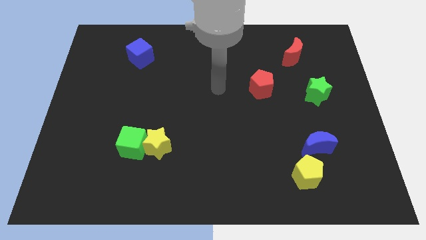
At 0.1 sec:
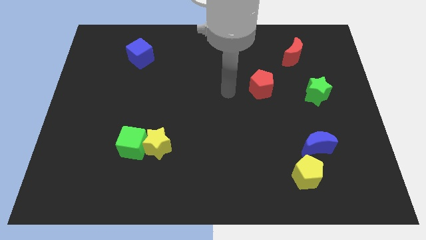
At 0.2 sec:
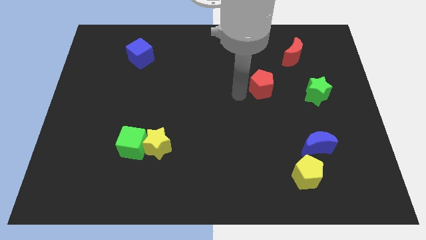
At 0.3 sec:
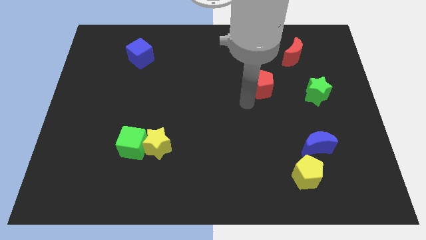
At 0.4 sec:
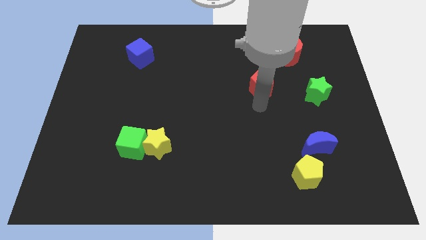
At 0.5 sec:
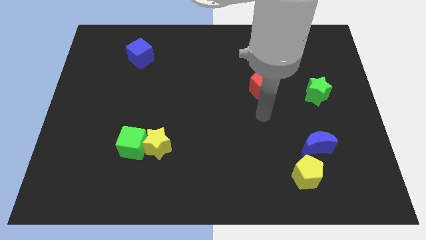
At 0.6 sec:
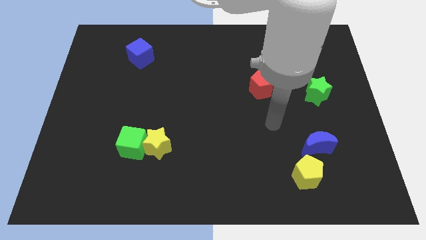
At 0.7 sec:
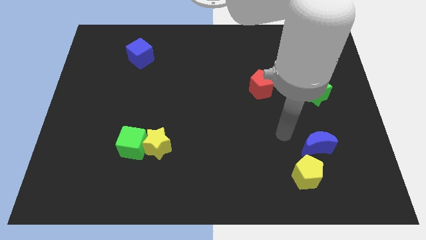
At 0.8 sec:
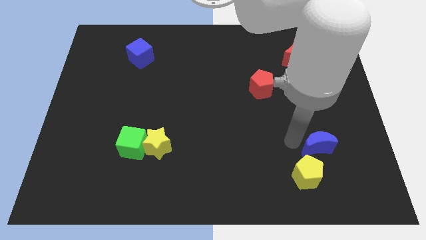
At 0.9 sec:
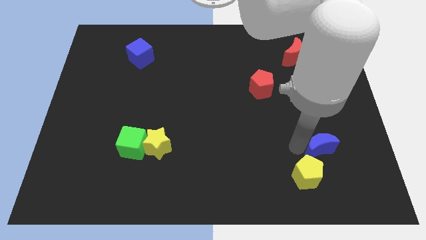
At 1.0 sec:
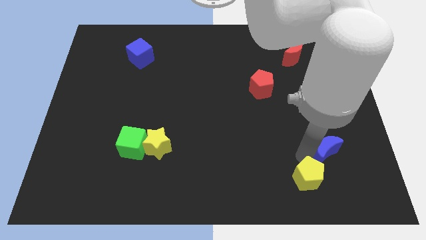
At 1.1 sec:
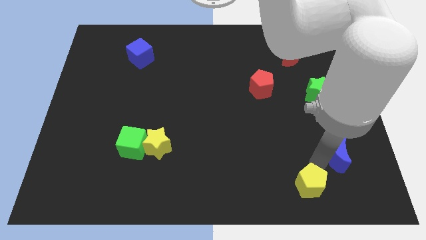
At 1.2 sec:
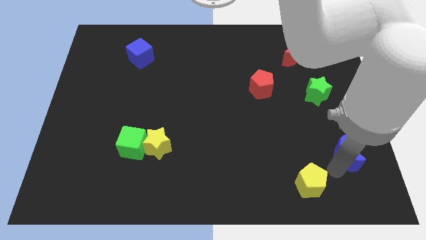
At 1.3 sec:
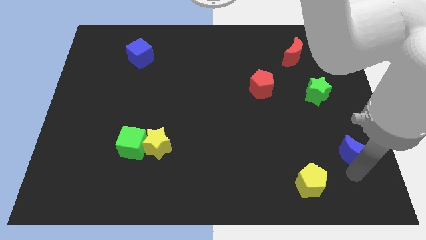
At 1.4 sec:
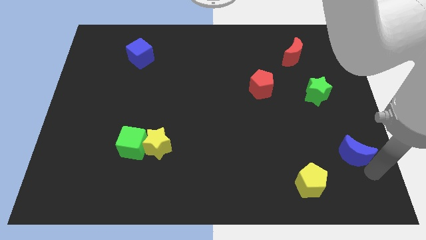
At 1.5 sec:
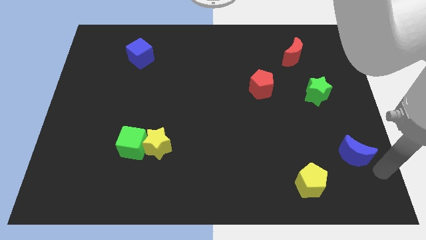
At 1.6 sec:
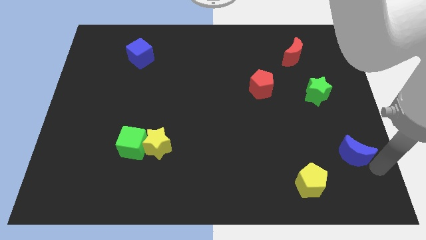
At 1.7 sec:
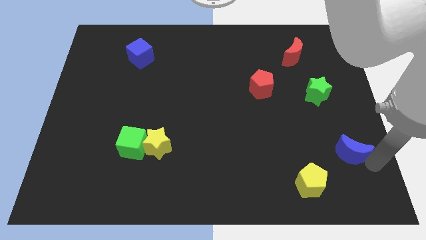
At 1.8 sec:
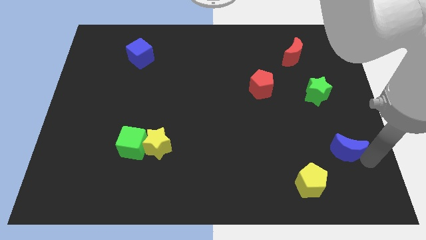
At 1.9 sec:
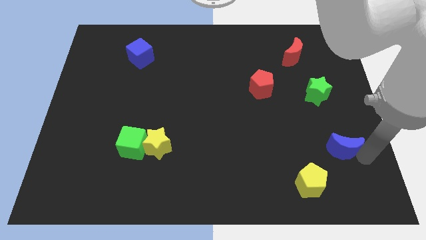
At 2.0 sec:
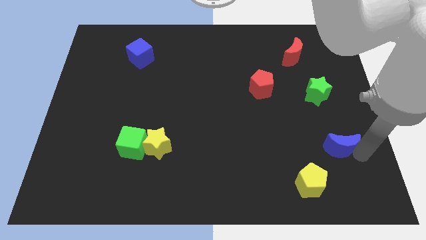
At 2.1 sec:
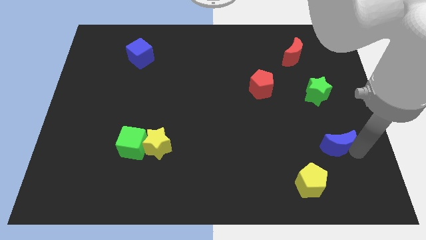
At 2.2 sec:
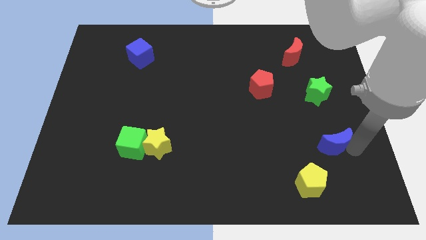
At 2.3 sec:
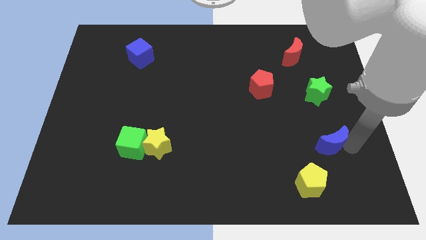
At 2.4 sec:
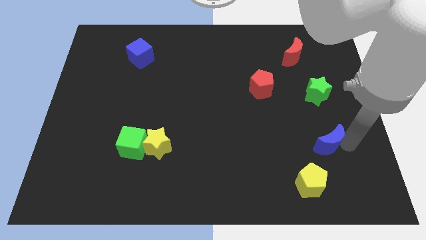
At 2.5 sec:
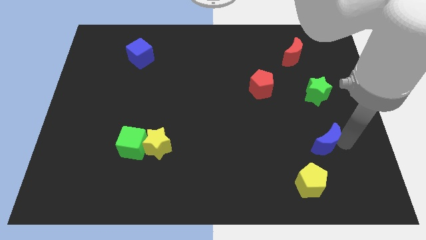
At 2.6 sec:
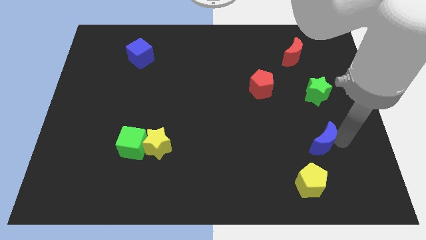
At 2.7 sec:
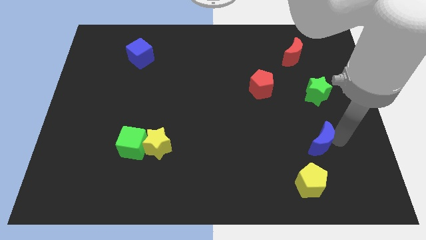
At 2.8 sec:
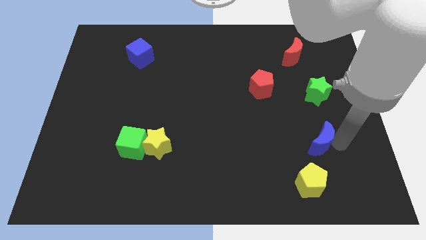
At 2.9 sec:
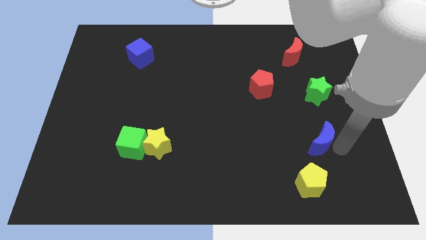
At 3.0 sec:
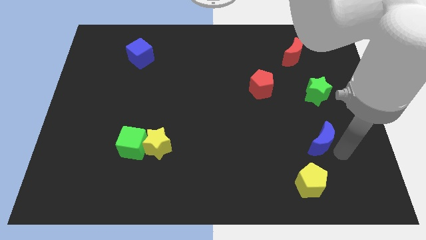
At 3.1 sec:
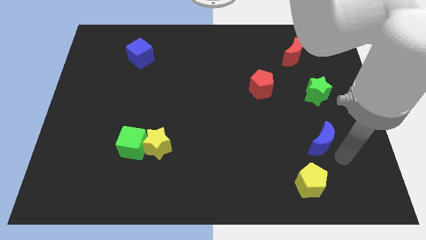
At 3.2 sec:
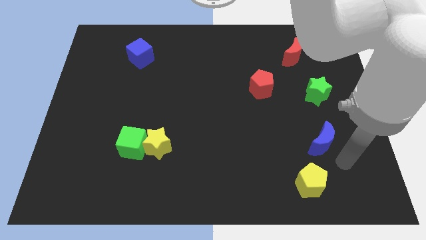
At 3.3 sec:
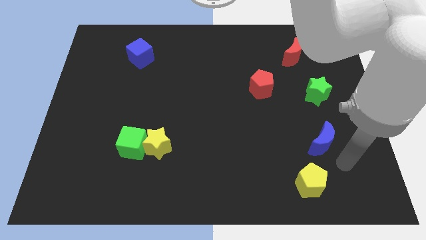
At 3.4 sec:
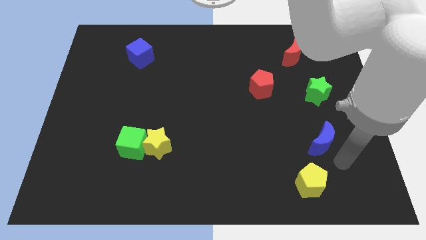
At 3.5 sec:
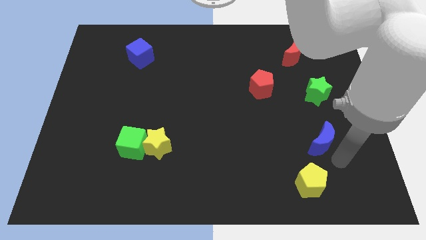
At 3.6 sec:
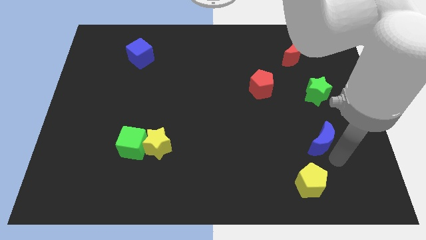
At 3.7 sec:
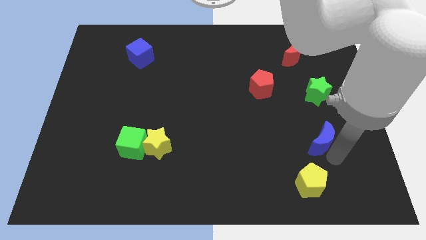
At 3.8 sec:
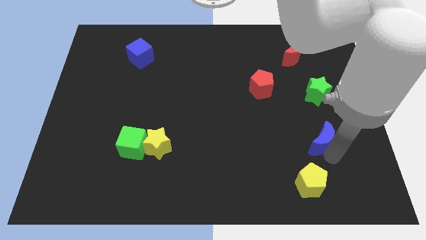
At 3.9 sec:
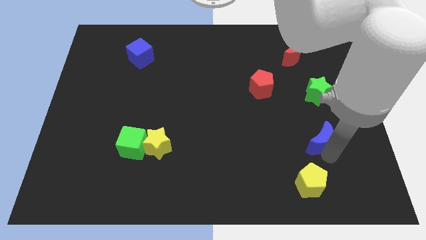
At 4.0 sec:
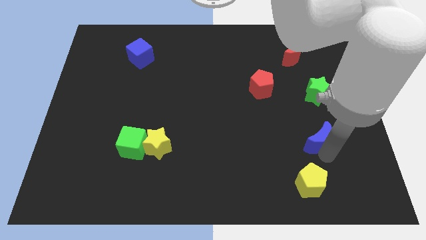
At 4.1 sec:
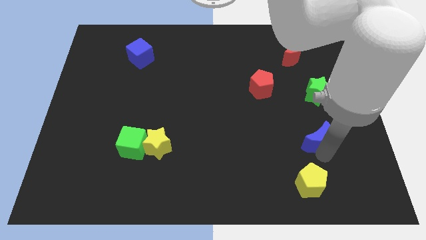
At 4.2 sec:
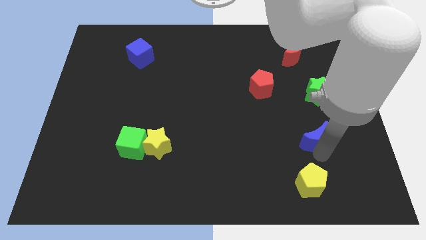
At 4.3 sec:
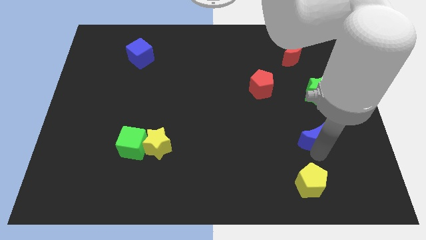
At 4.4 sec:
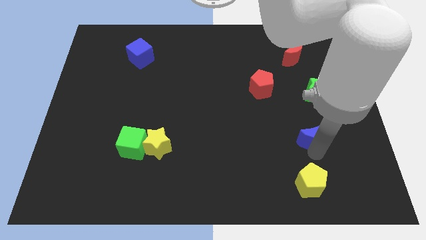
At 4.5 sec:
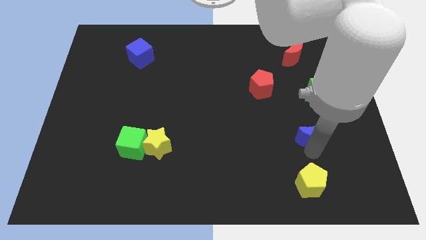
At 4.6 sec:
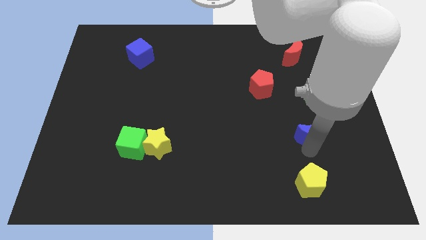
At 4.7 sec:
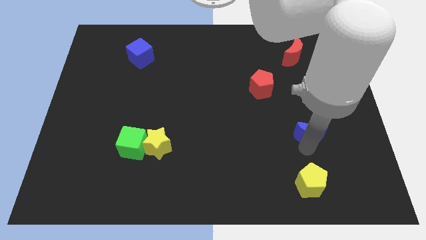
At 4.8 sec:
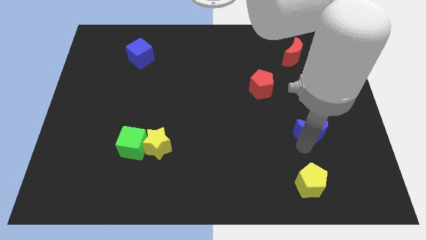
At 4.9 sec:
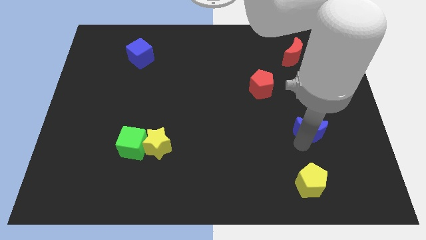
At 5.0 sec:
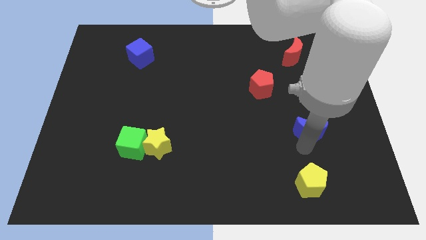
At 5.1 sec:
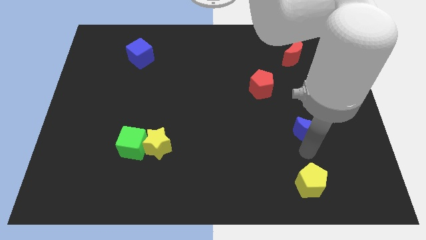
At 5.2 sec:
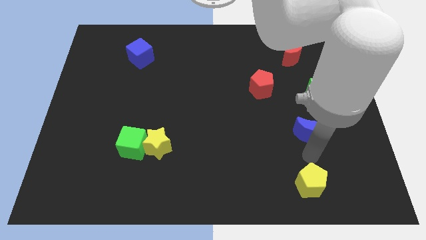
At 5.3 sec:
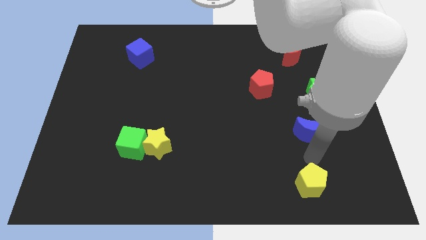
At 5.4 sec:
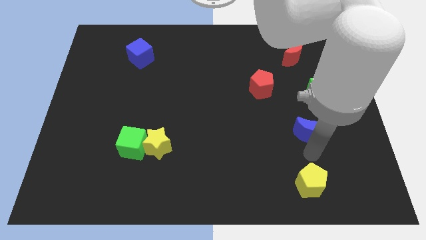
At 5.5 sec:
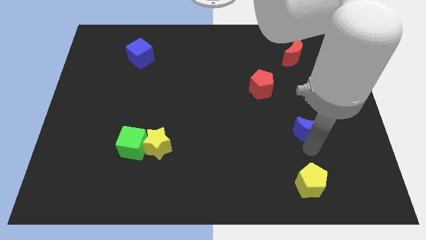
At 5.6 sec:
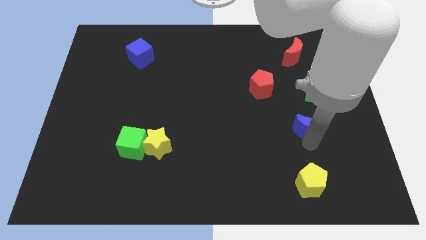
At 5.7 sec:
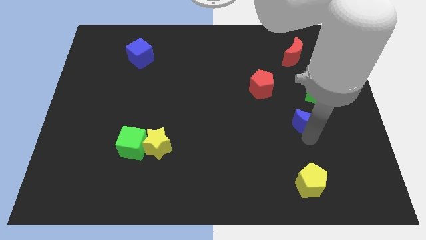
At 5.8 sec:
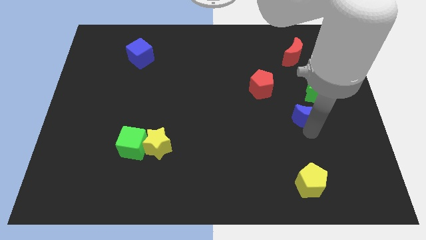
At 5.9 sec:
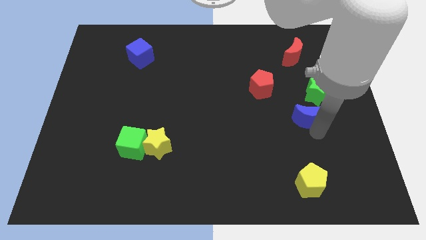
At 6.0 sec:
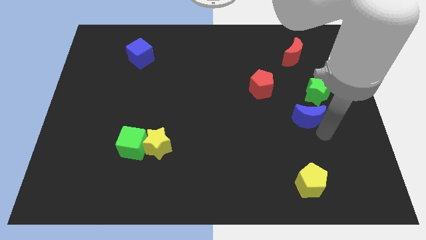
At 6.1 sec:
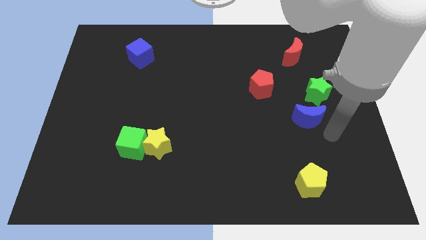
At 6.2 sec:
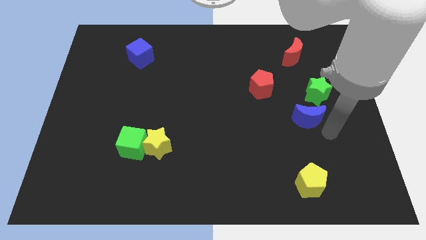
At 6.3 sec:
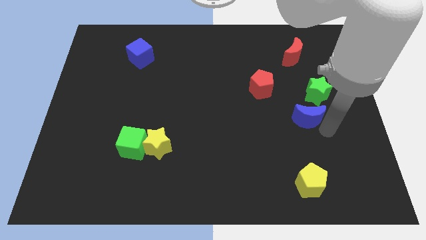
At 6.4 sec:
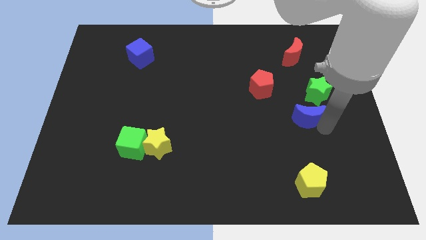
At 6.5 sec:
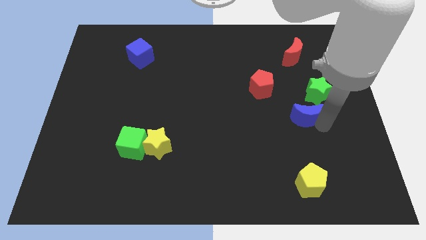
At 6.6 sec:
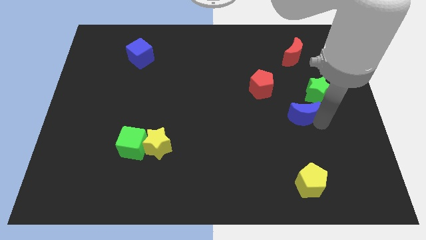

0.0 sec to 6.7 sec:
slide the blue moon to the bottom right side of the red pentagon

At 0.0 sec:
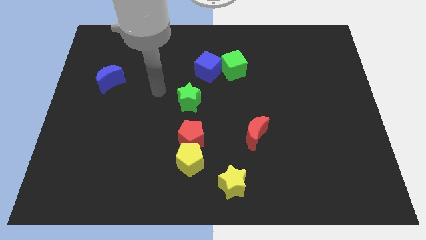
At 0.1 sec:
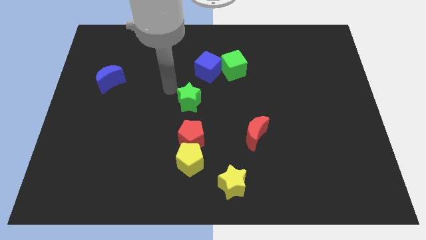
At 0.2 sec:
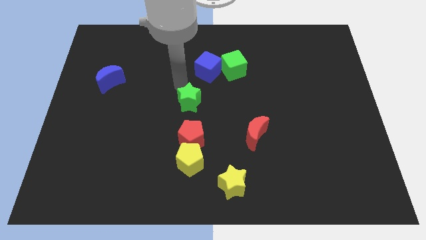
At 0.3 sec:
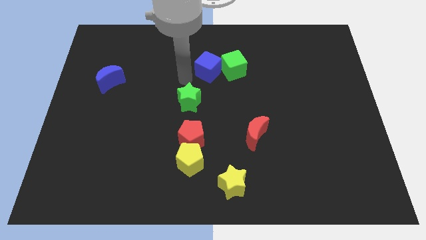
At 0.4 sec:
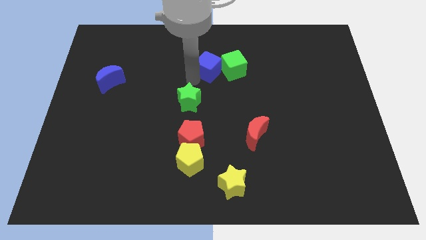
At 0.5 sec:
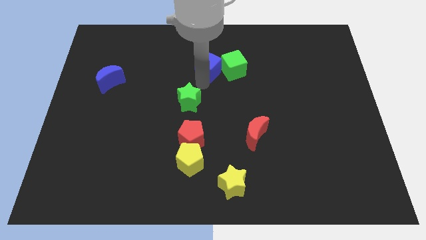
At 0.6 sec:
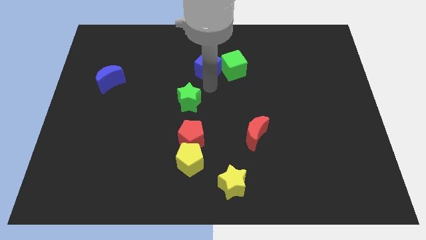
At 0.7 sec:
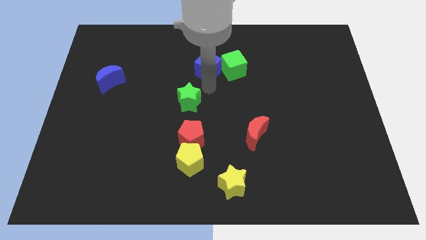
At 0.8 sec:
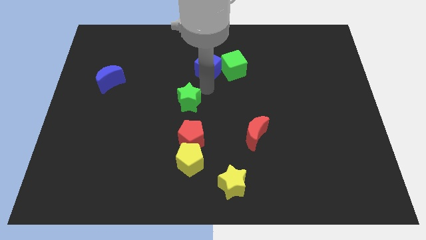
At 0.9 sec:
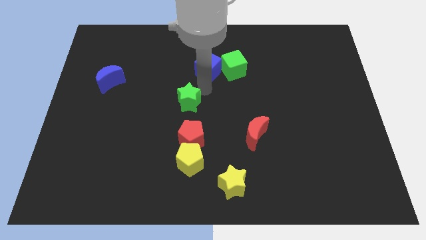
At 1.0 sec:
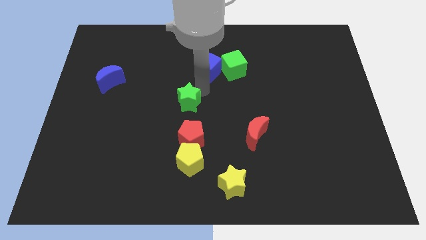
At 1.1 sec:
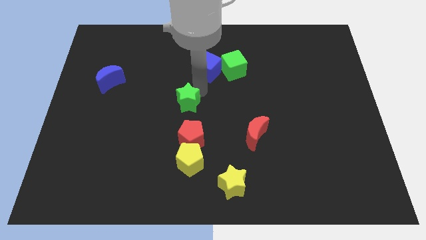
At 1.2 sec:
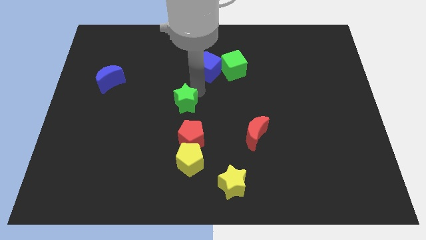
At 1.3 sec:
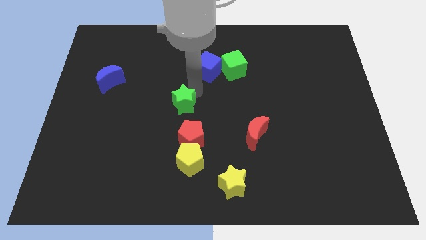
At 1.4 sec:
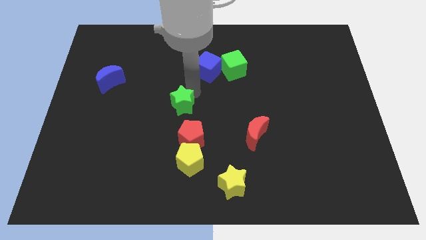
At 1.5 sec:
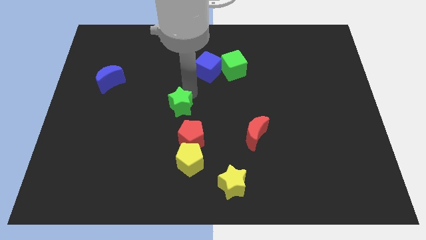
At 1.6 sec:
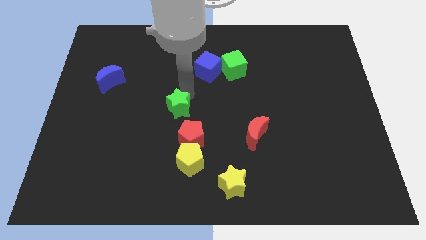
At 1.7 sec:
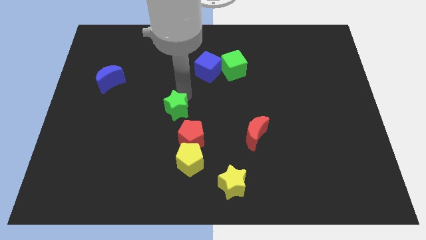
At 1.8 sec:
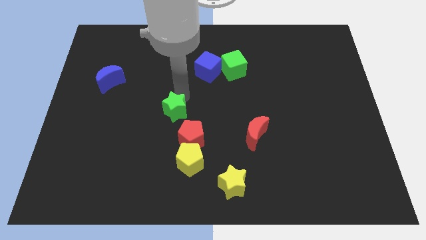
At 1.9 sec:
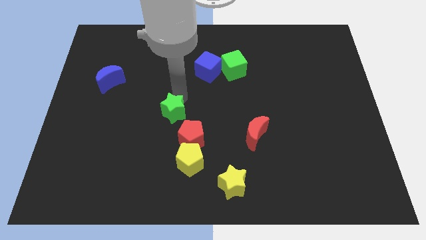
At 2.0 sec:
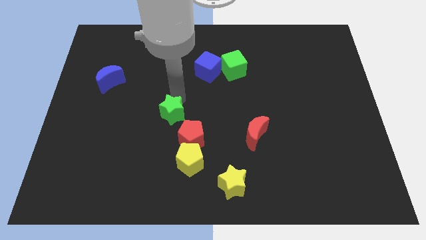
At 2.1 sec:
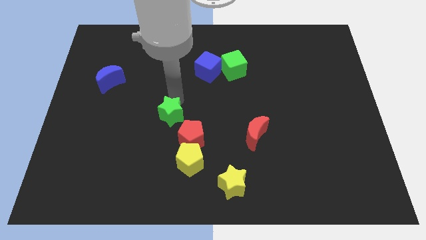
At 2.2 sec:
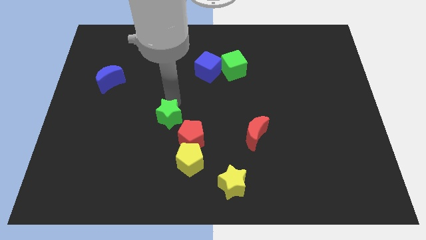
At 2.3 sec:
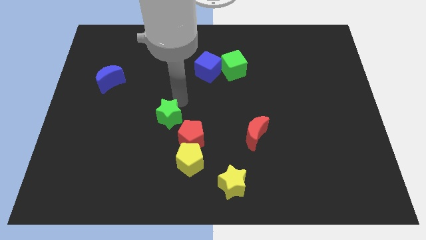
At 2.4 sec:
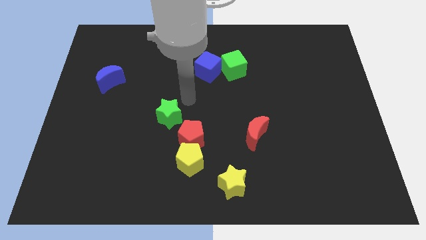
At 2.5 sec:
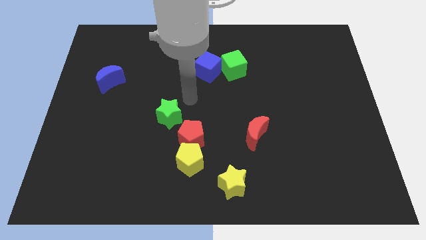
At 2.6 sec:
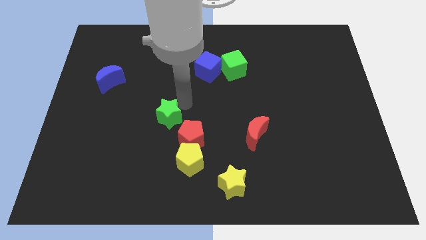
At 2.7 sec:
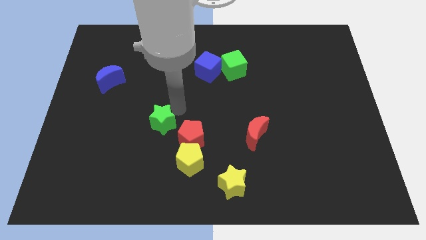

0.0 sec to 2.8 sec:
slide the green star to the left side of the red pentagon
